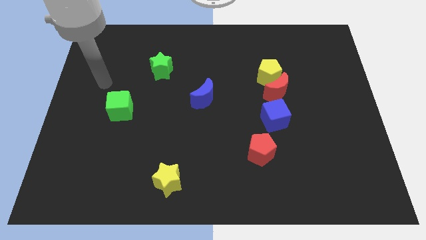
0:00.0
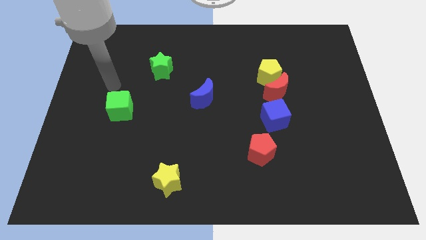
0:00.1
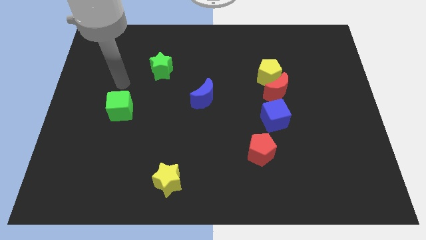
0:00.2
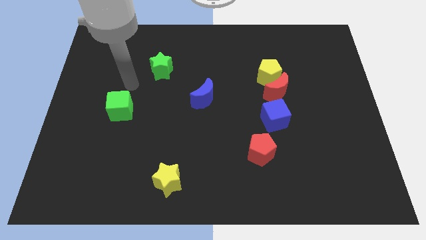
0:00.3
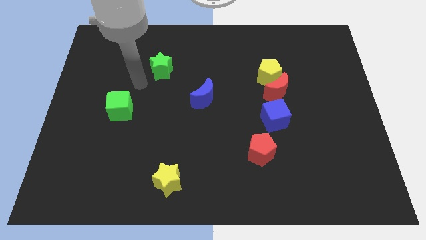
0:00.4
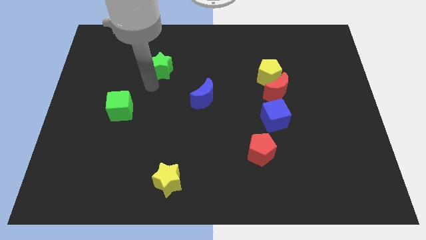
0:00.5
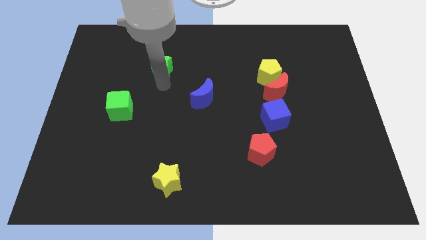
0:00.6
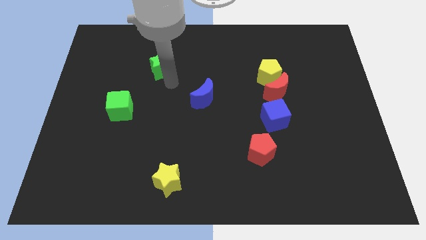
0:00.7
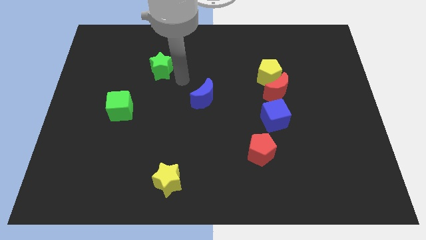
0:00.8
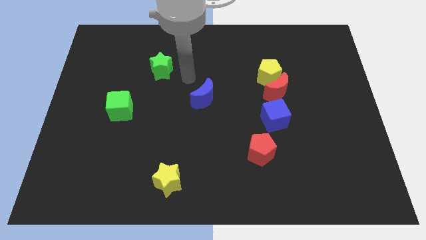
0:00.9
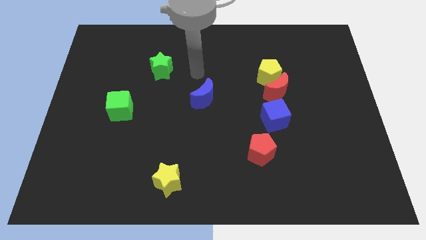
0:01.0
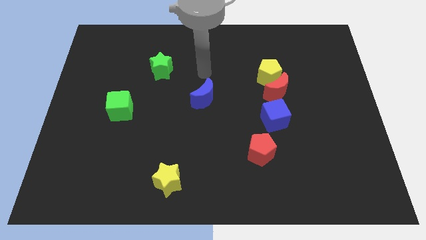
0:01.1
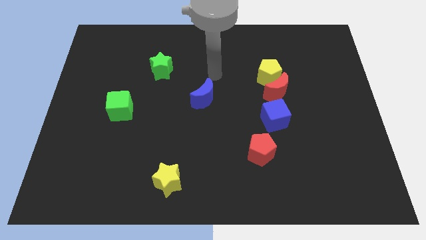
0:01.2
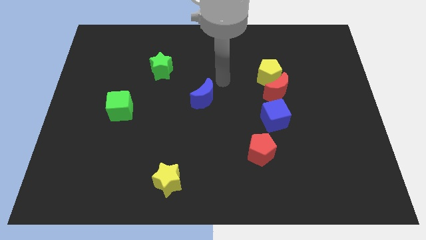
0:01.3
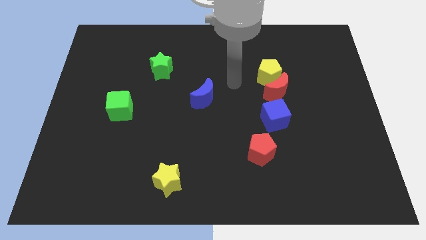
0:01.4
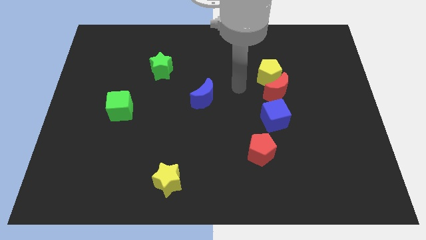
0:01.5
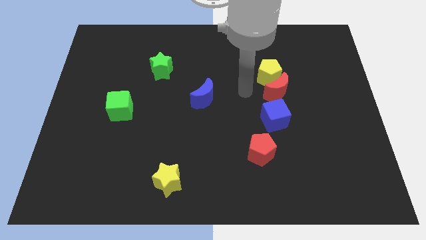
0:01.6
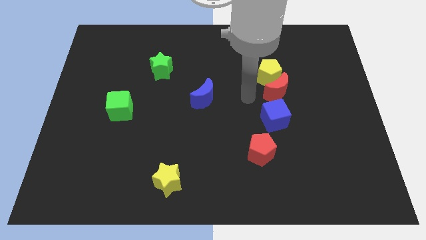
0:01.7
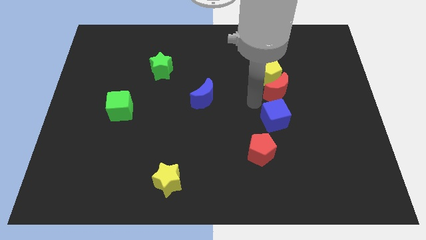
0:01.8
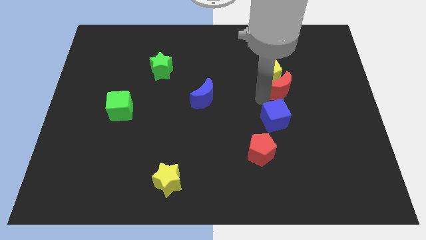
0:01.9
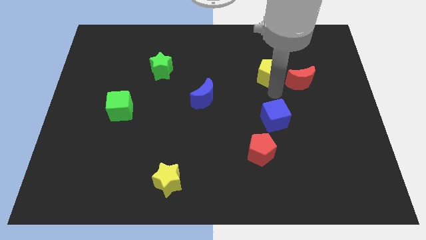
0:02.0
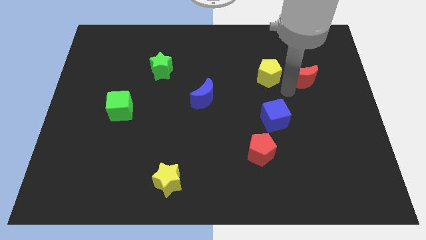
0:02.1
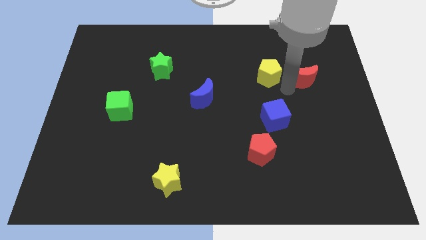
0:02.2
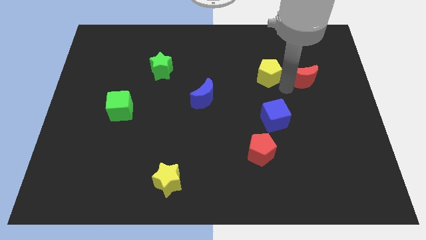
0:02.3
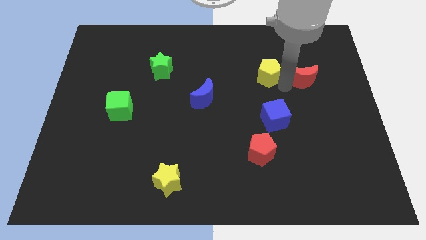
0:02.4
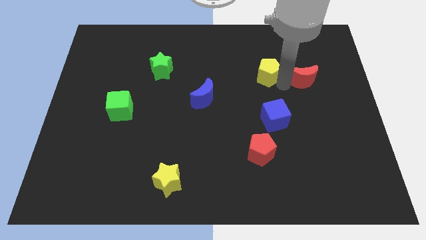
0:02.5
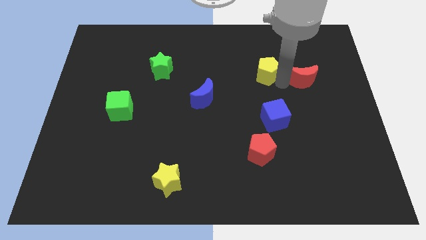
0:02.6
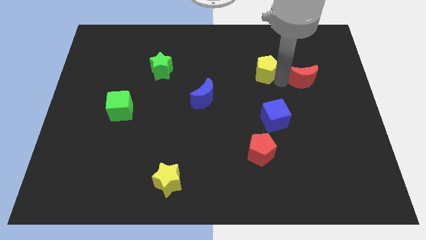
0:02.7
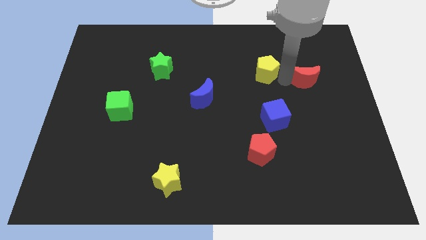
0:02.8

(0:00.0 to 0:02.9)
separate the yellow pentagon from the red moon

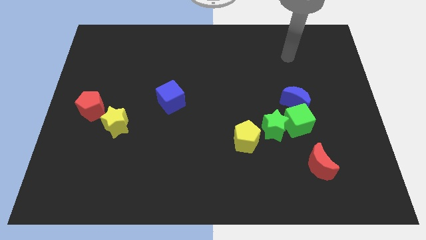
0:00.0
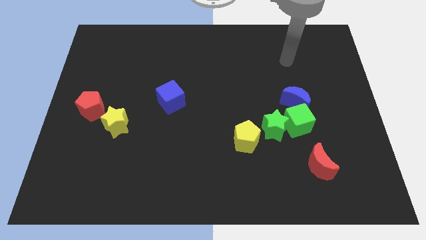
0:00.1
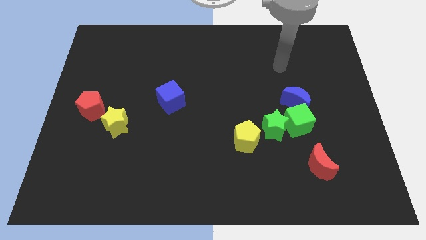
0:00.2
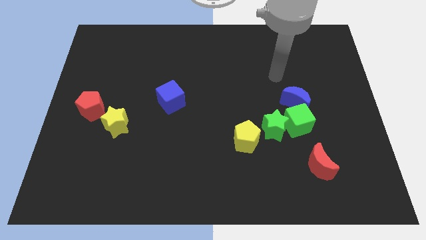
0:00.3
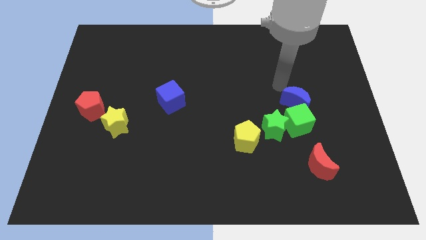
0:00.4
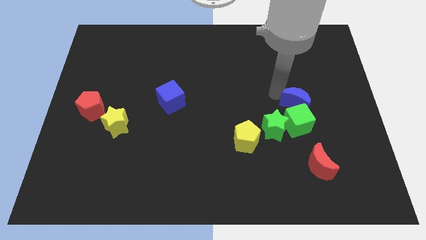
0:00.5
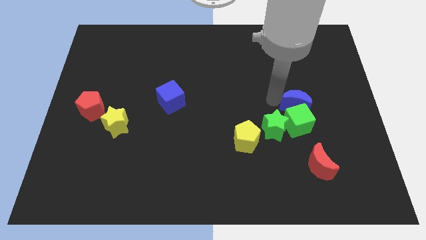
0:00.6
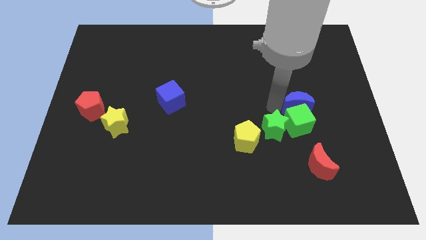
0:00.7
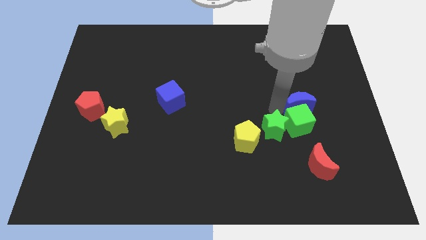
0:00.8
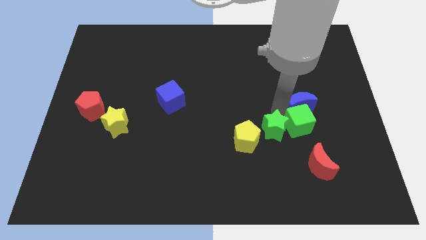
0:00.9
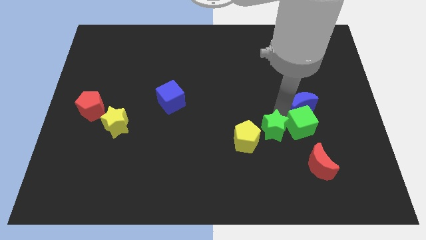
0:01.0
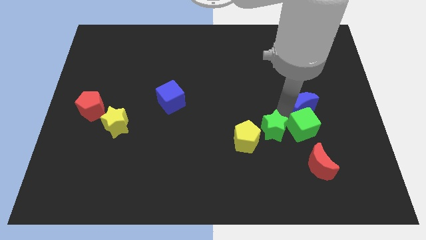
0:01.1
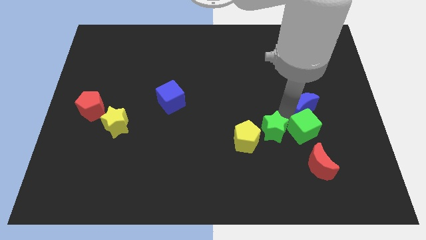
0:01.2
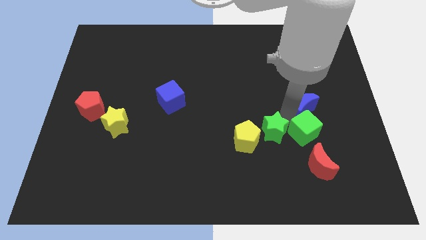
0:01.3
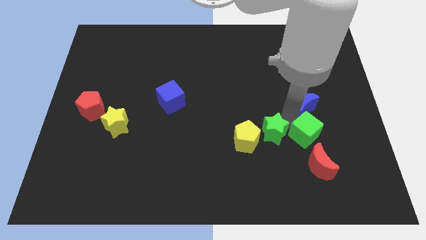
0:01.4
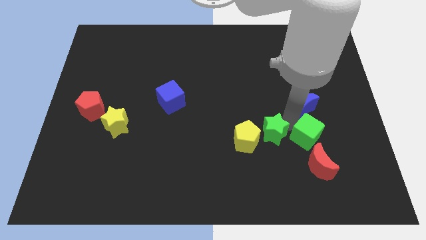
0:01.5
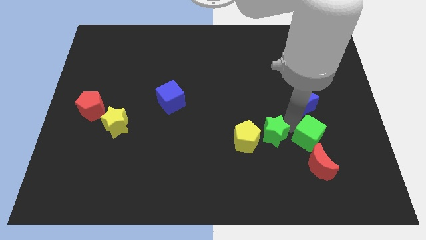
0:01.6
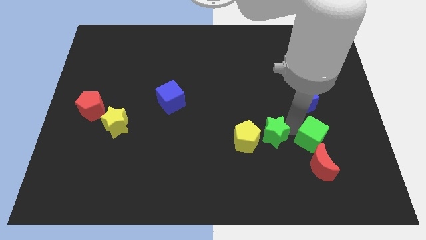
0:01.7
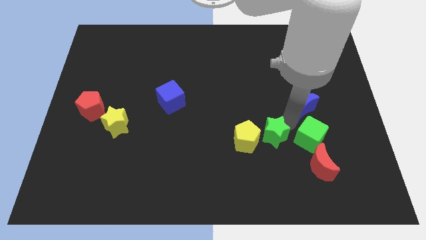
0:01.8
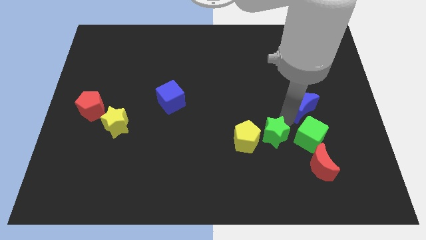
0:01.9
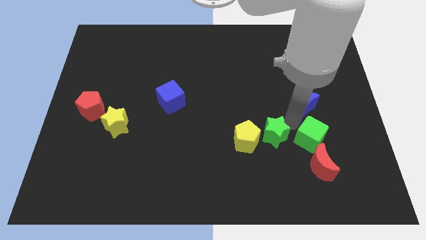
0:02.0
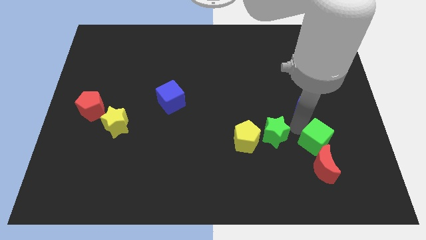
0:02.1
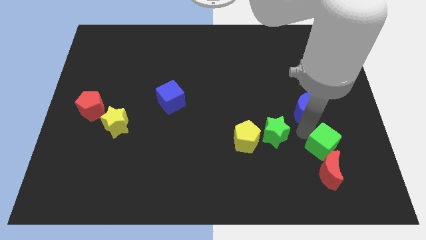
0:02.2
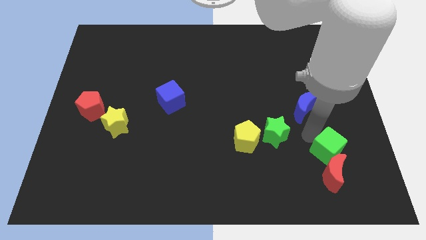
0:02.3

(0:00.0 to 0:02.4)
pull the green cube apart from the green star and blue moon

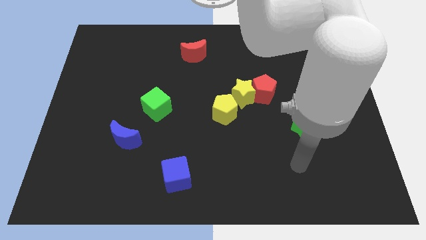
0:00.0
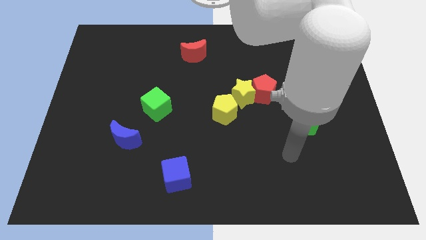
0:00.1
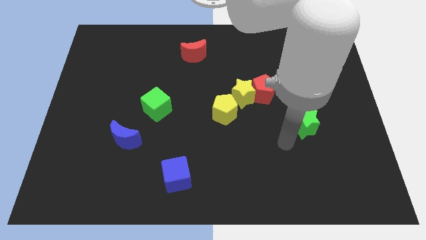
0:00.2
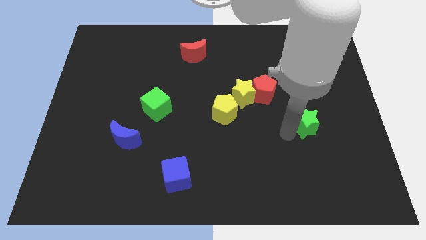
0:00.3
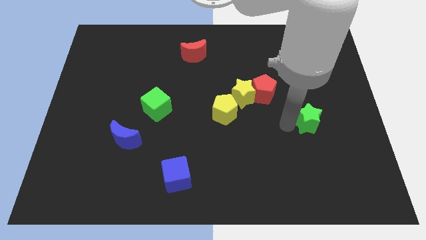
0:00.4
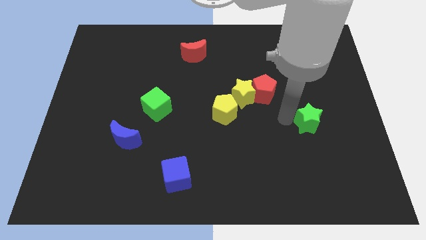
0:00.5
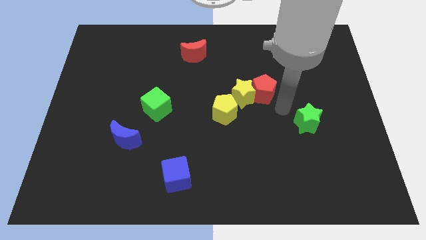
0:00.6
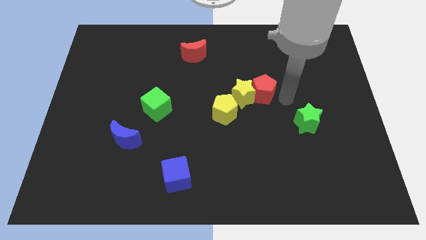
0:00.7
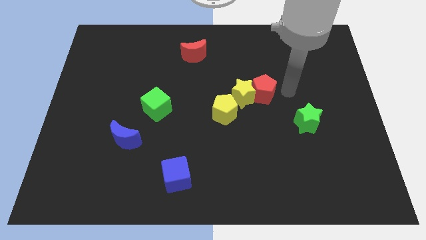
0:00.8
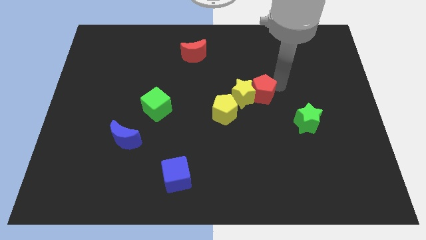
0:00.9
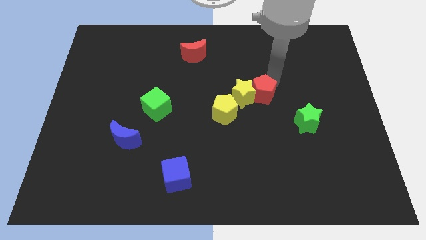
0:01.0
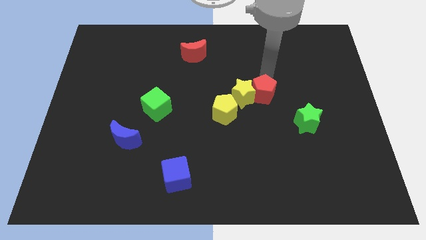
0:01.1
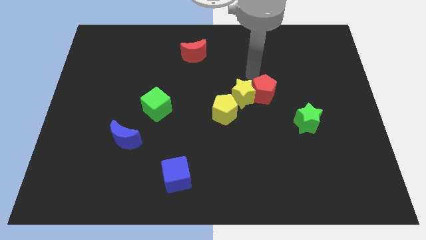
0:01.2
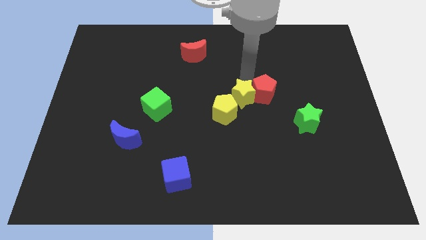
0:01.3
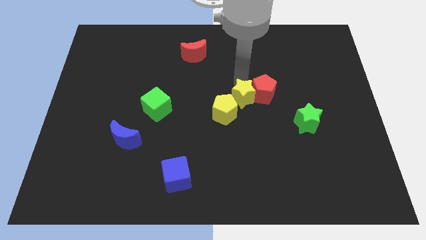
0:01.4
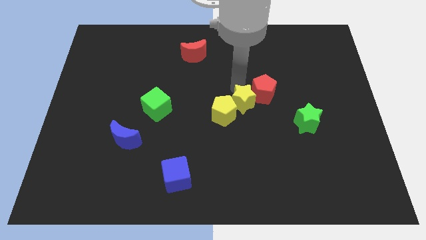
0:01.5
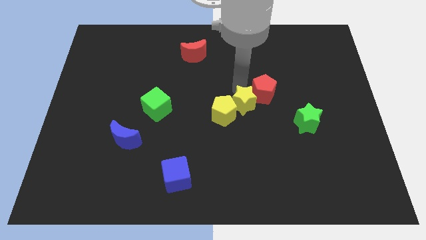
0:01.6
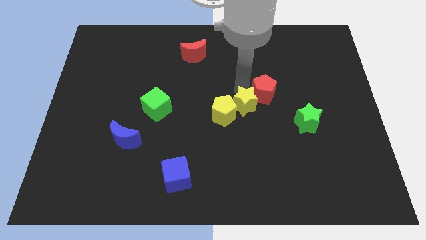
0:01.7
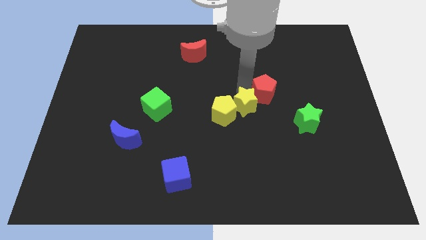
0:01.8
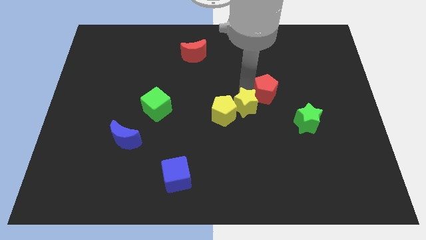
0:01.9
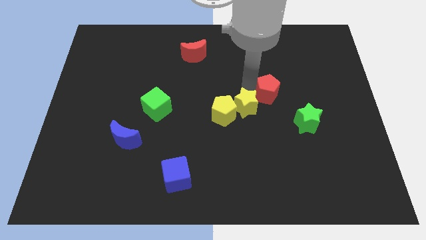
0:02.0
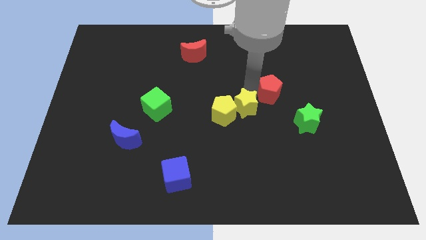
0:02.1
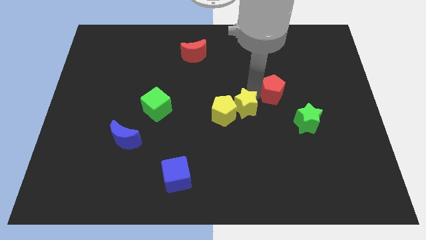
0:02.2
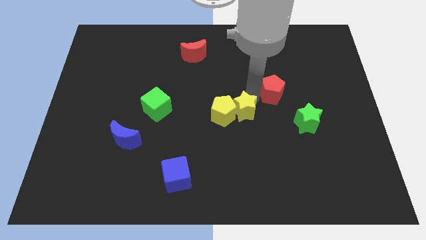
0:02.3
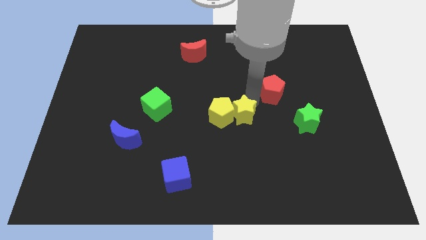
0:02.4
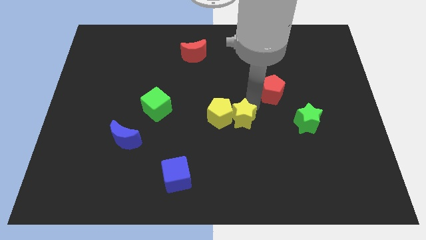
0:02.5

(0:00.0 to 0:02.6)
move the red pentagon away from the yellow star

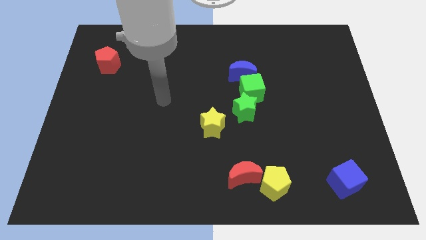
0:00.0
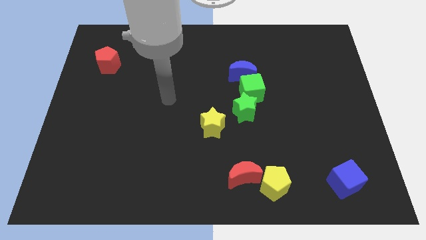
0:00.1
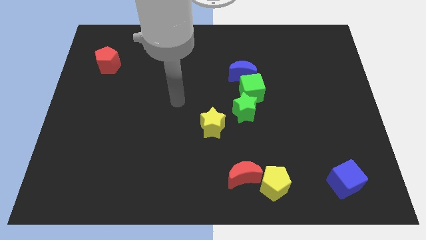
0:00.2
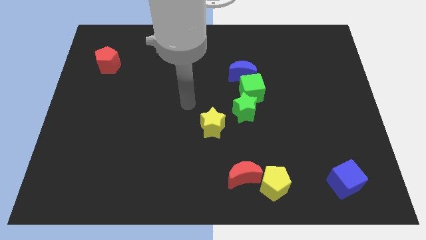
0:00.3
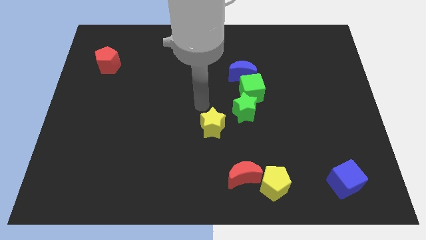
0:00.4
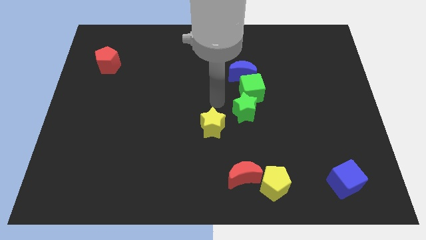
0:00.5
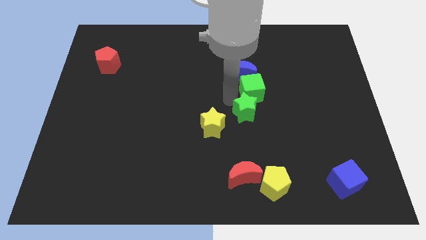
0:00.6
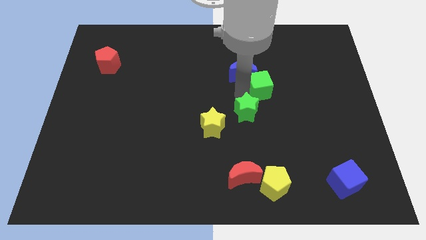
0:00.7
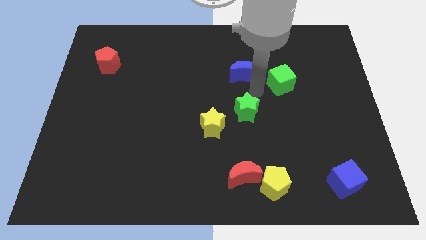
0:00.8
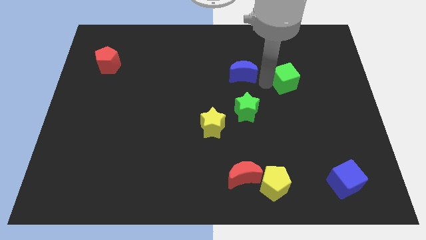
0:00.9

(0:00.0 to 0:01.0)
pull the blue moon apart from the green cube

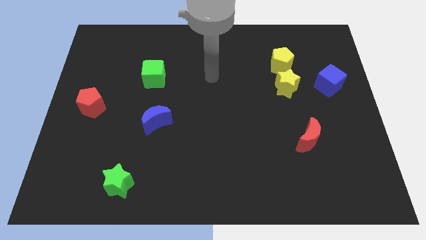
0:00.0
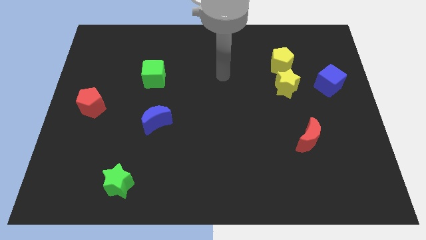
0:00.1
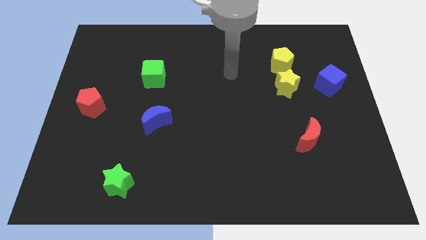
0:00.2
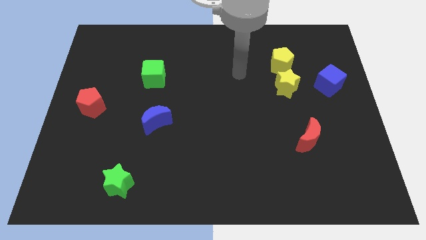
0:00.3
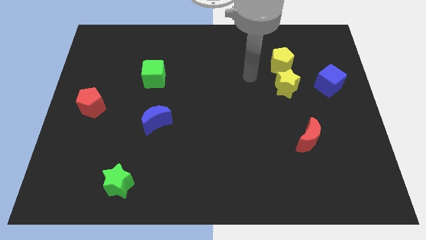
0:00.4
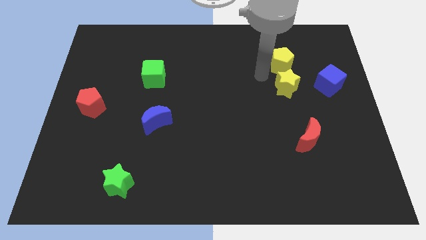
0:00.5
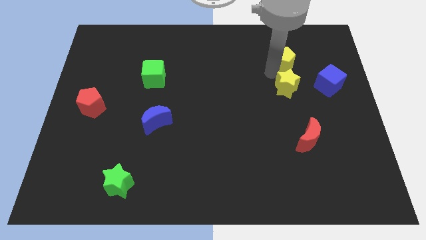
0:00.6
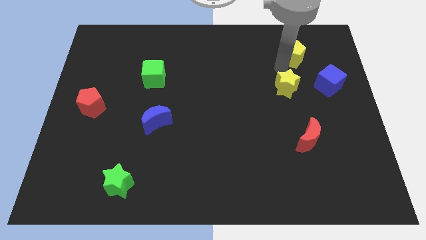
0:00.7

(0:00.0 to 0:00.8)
separate the yellow star from the yellow pentagon
